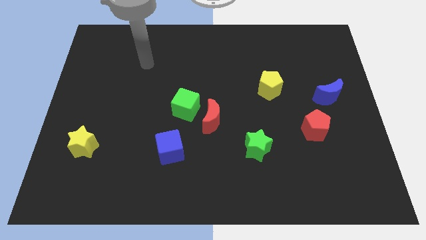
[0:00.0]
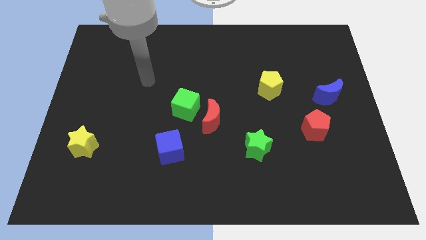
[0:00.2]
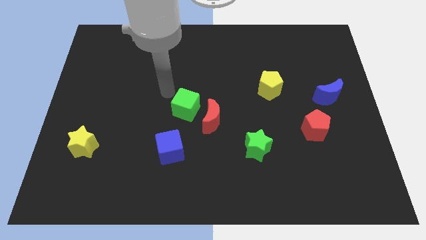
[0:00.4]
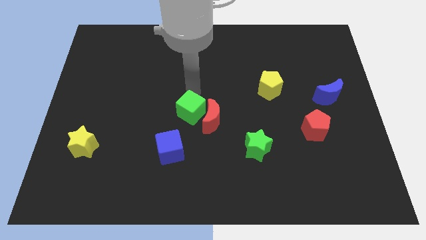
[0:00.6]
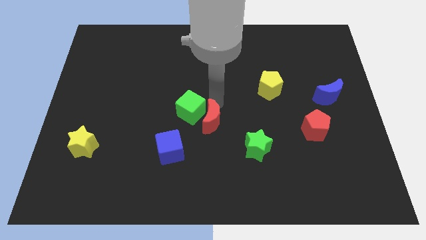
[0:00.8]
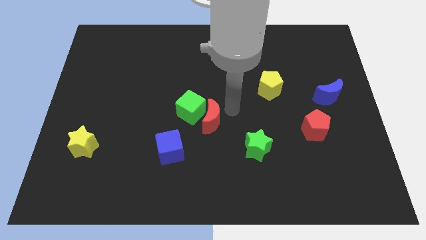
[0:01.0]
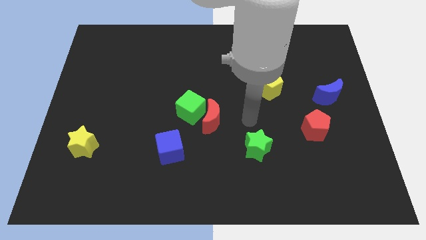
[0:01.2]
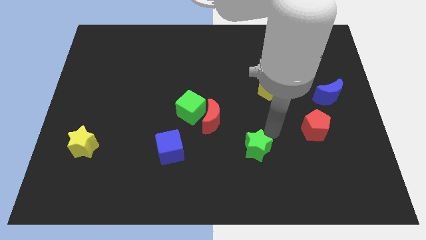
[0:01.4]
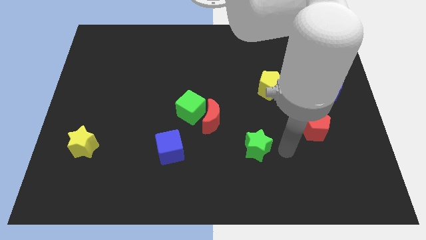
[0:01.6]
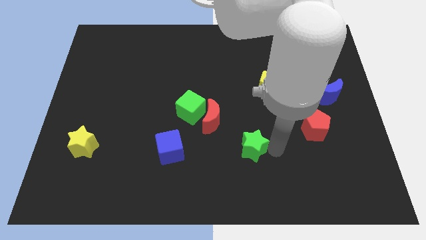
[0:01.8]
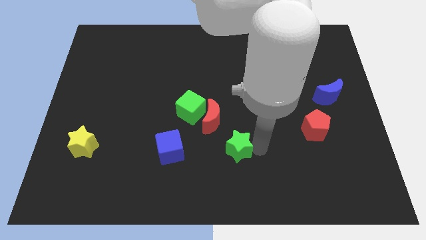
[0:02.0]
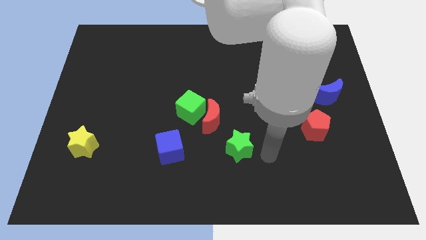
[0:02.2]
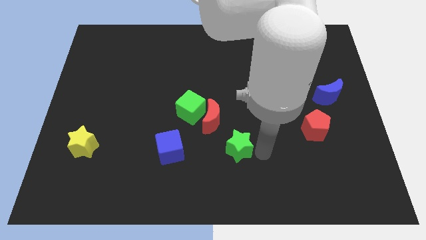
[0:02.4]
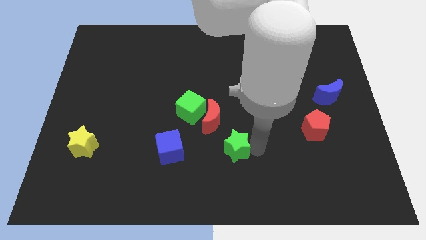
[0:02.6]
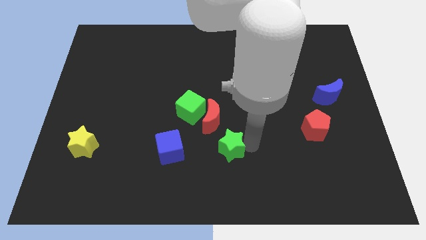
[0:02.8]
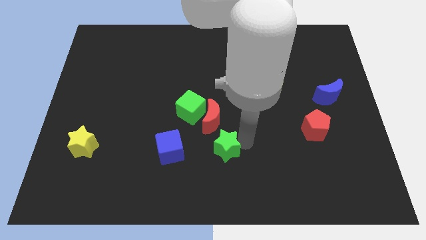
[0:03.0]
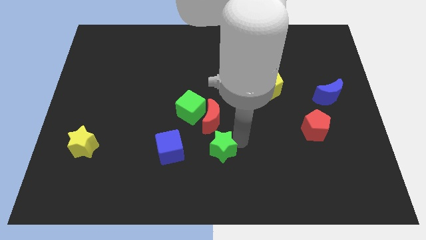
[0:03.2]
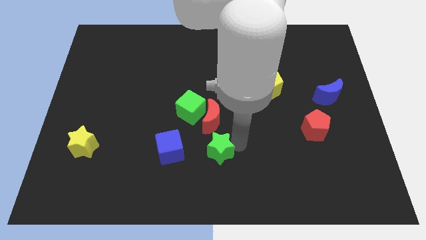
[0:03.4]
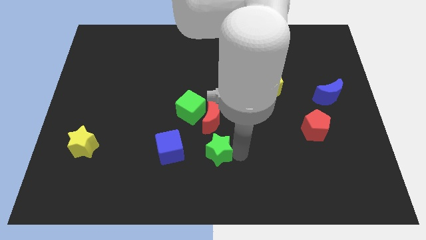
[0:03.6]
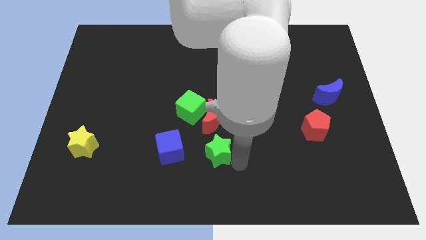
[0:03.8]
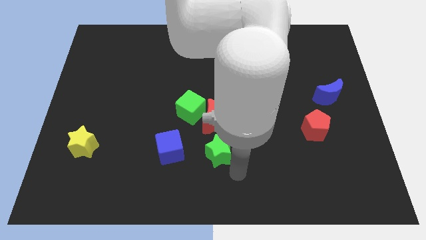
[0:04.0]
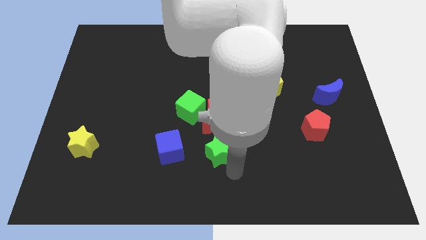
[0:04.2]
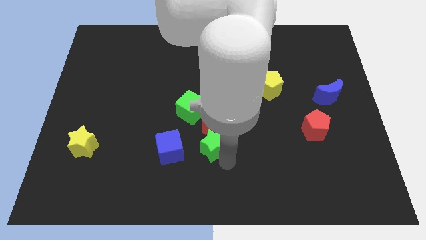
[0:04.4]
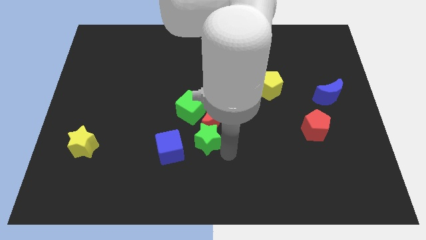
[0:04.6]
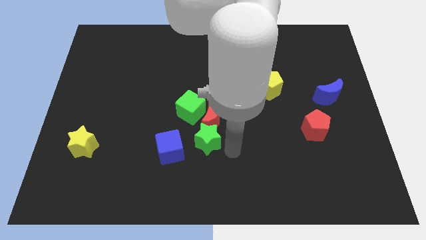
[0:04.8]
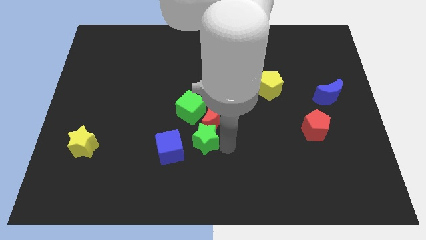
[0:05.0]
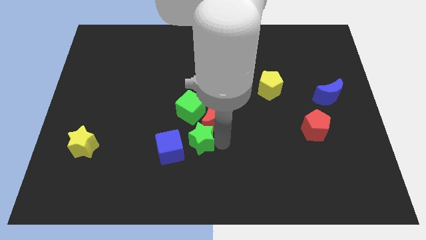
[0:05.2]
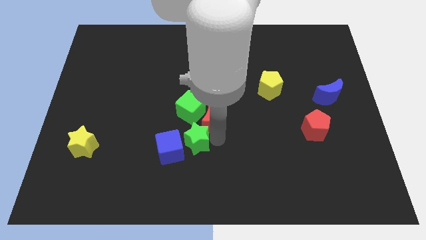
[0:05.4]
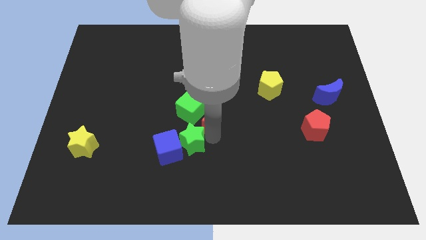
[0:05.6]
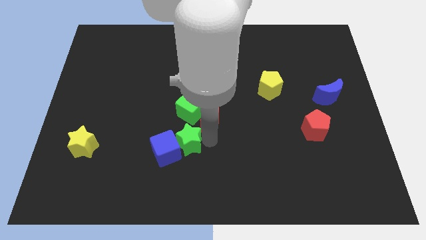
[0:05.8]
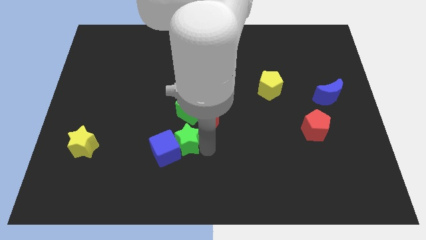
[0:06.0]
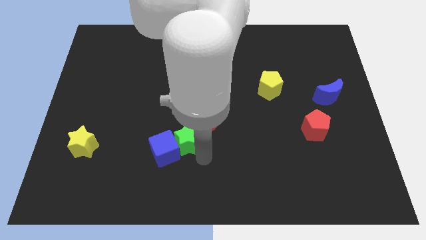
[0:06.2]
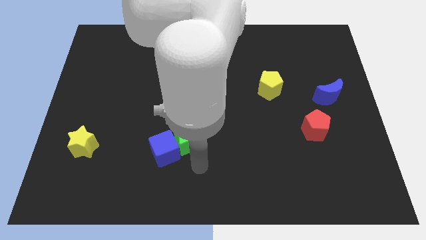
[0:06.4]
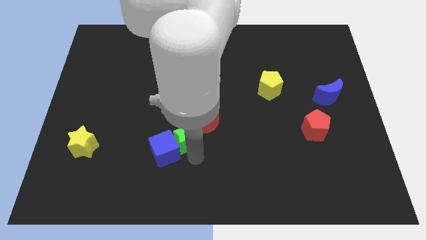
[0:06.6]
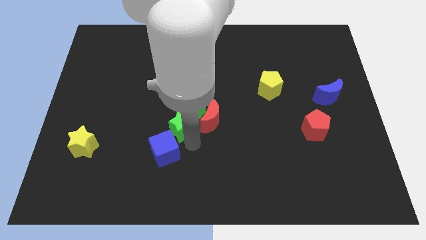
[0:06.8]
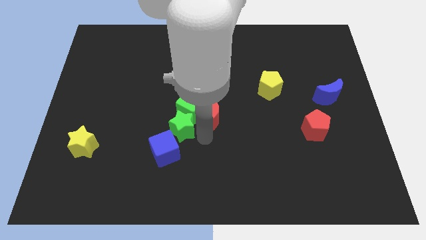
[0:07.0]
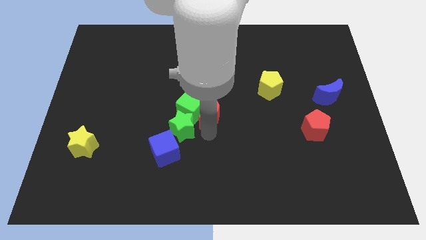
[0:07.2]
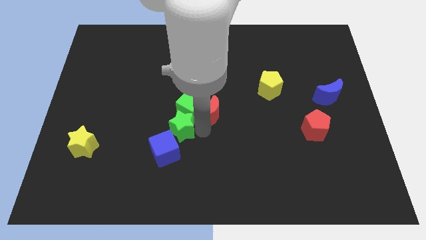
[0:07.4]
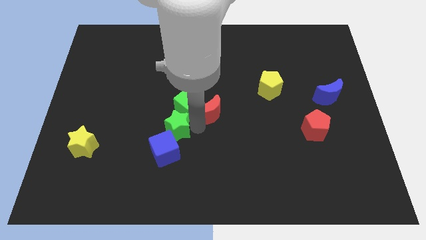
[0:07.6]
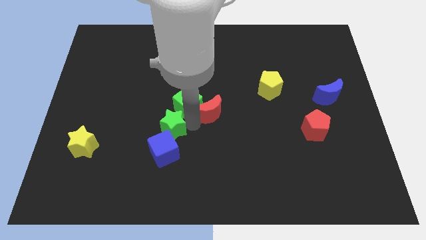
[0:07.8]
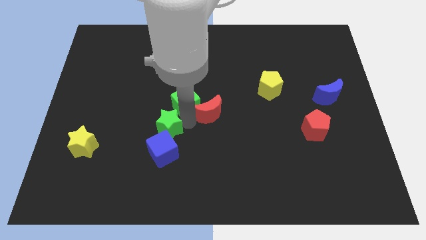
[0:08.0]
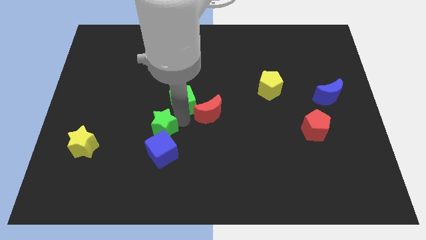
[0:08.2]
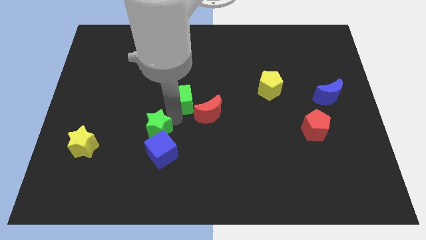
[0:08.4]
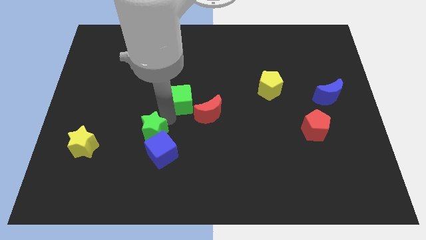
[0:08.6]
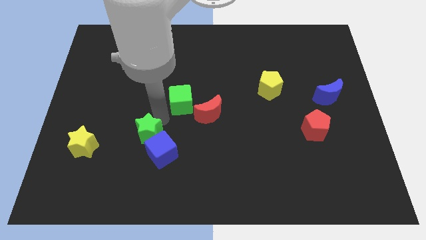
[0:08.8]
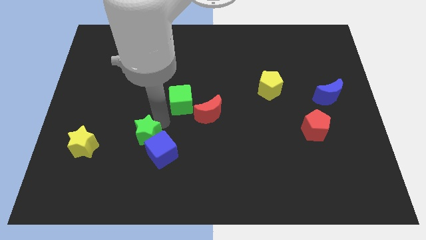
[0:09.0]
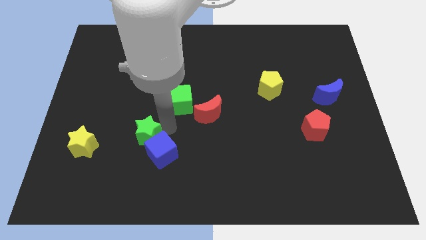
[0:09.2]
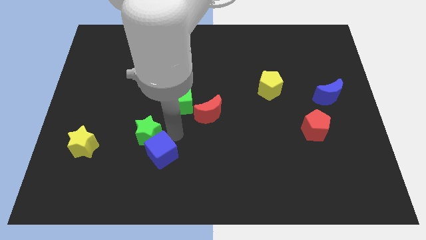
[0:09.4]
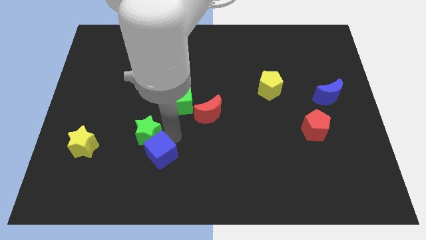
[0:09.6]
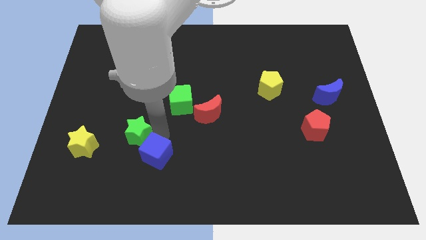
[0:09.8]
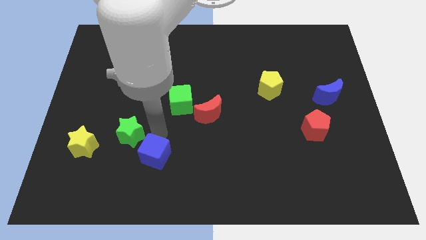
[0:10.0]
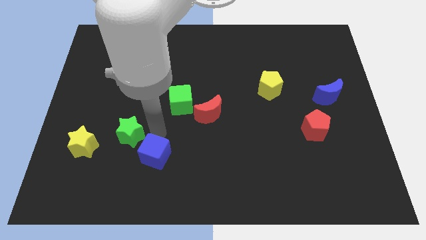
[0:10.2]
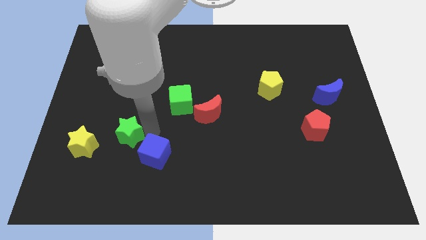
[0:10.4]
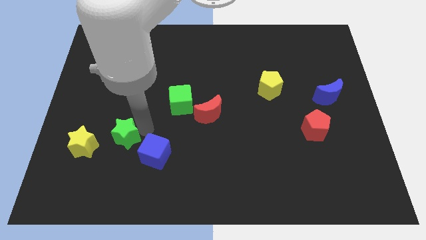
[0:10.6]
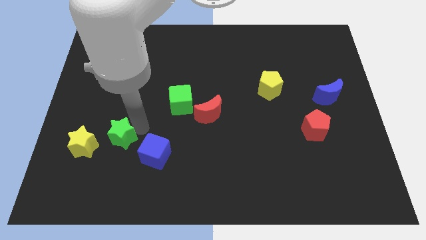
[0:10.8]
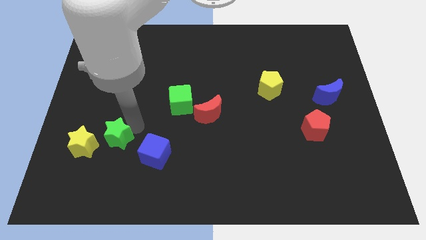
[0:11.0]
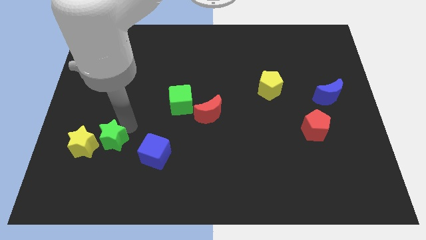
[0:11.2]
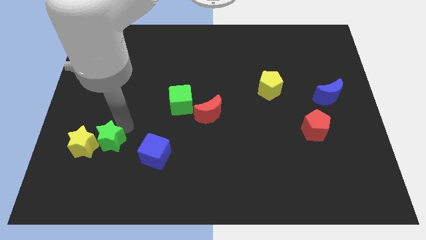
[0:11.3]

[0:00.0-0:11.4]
push the green star close to the yellow star

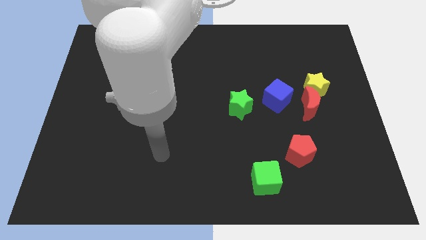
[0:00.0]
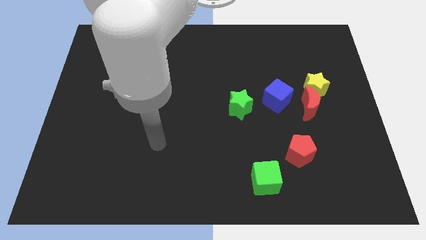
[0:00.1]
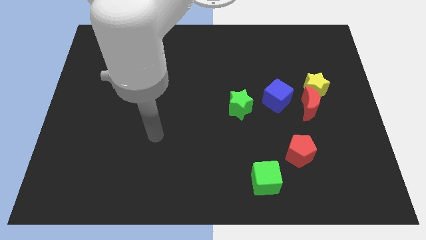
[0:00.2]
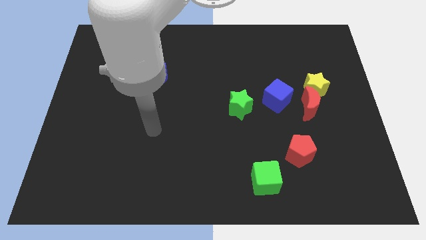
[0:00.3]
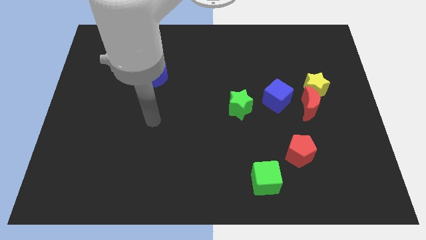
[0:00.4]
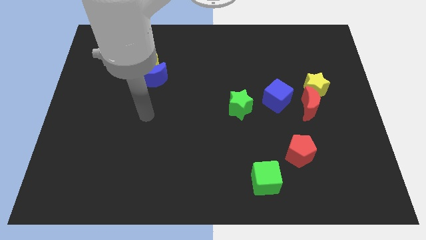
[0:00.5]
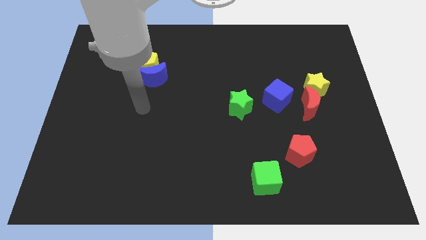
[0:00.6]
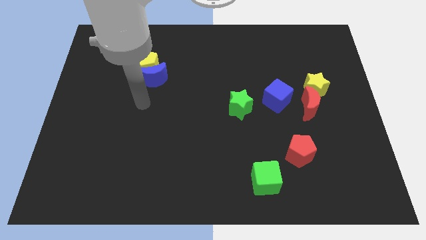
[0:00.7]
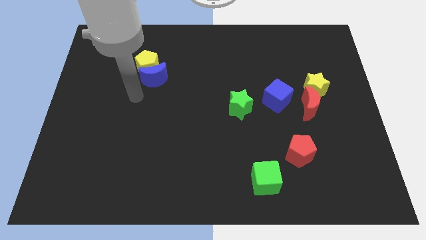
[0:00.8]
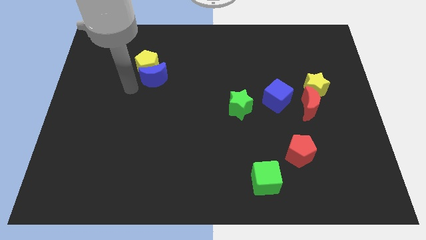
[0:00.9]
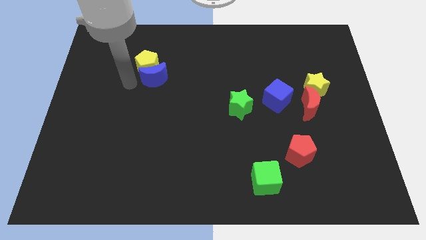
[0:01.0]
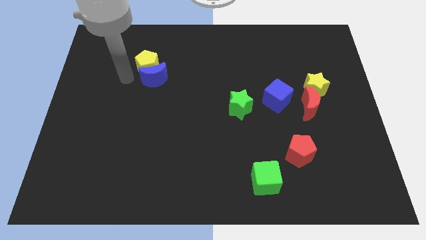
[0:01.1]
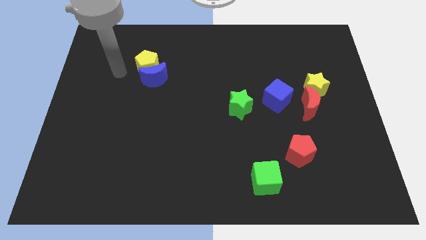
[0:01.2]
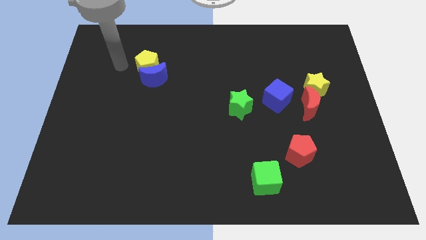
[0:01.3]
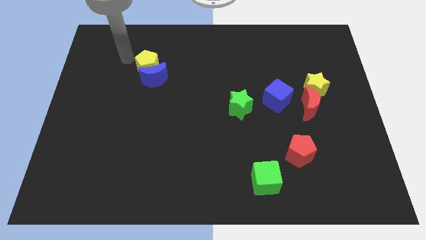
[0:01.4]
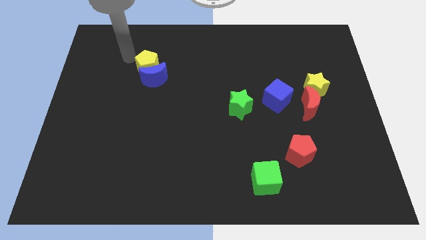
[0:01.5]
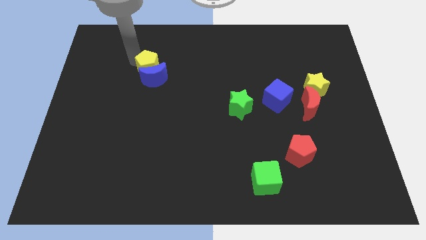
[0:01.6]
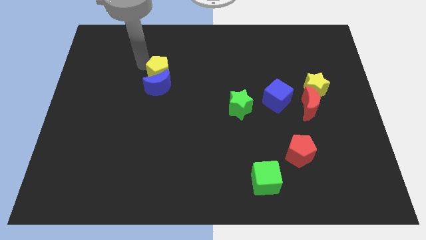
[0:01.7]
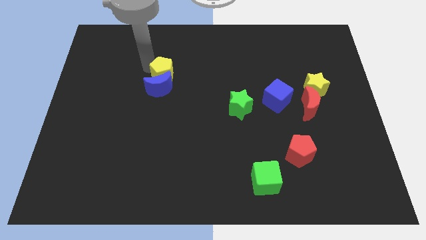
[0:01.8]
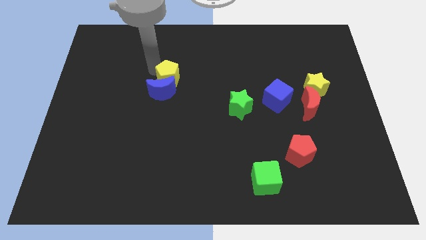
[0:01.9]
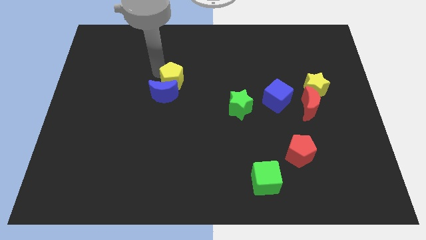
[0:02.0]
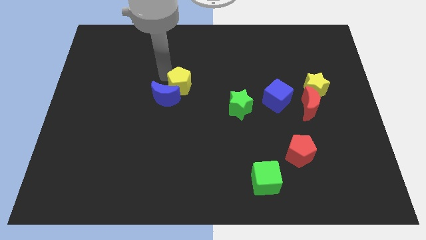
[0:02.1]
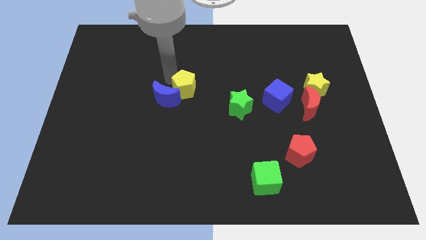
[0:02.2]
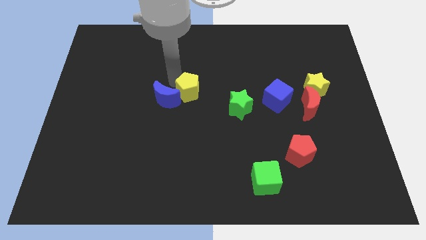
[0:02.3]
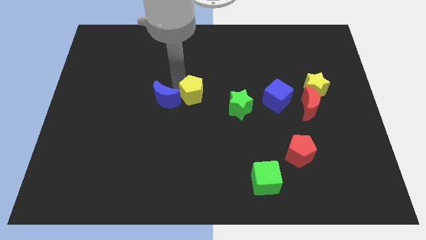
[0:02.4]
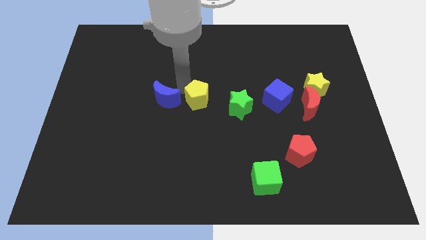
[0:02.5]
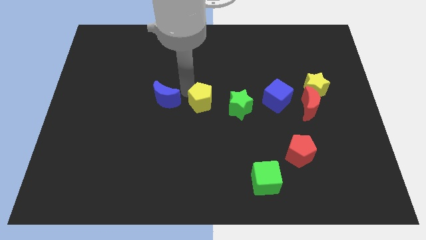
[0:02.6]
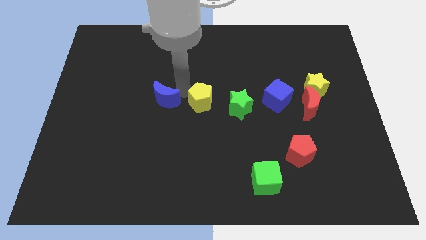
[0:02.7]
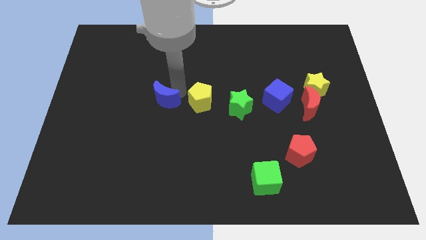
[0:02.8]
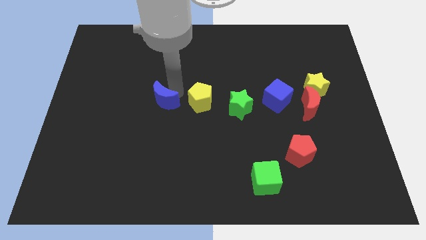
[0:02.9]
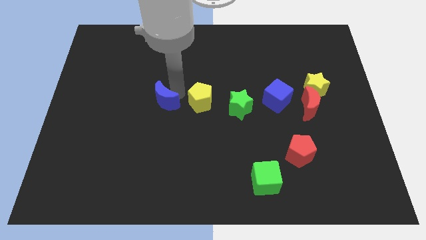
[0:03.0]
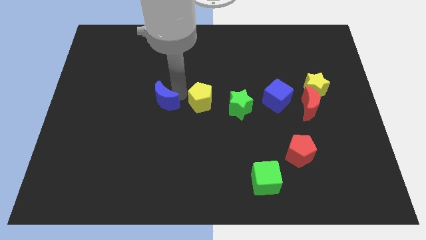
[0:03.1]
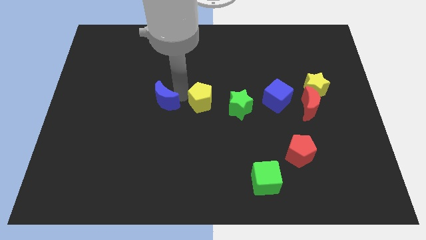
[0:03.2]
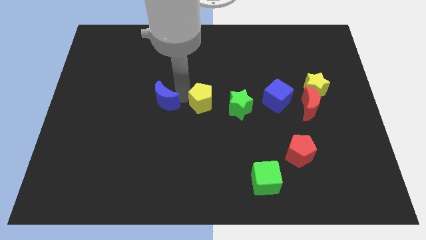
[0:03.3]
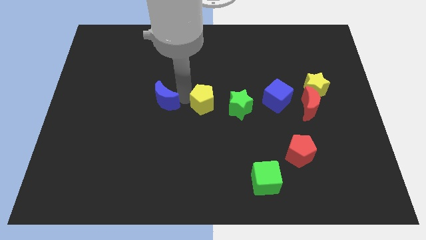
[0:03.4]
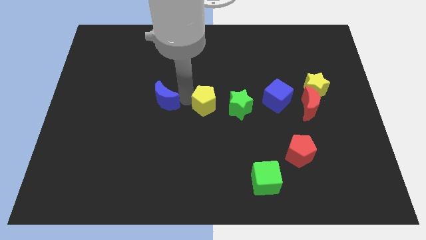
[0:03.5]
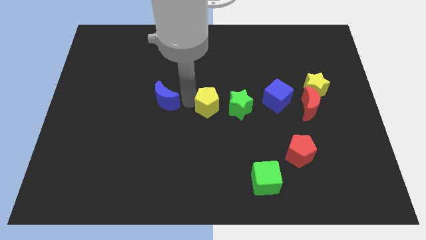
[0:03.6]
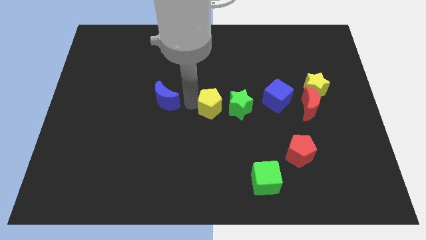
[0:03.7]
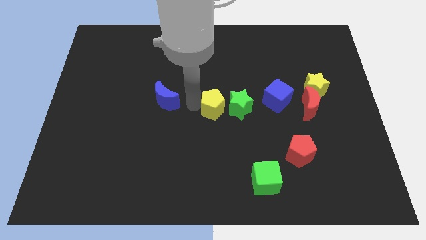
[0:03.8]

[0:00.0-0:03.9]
move the yellow pentagon close to the green star
